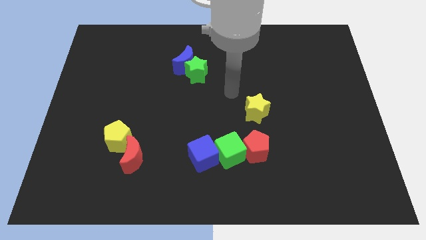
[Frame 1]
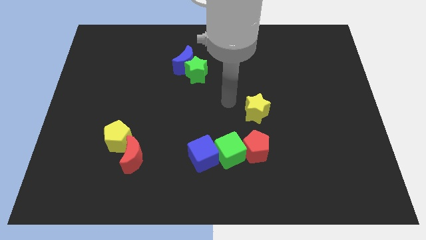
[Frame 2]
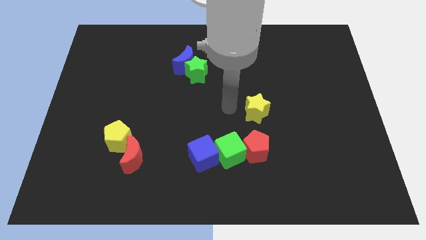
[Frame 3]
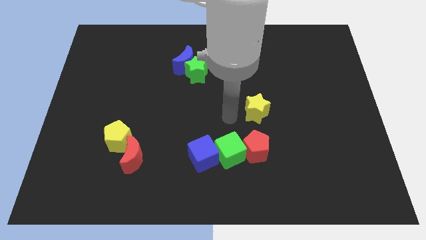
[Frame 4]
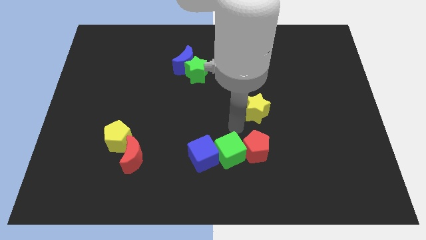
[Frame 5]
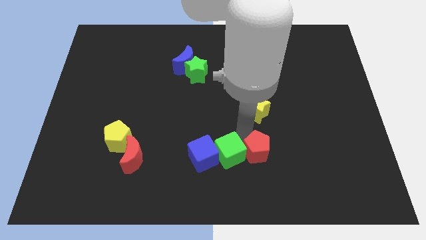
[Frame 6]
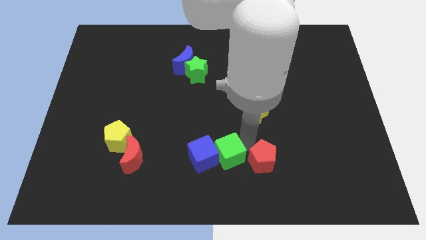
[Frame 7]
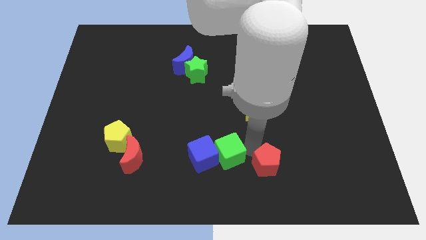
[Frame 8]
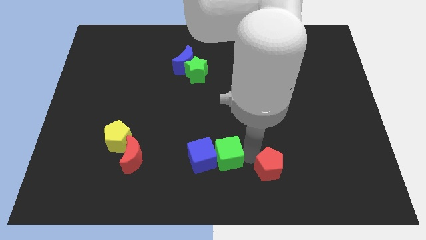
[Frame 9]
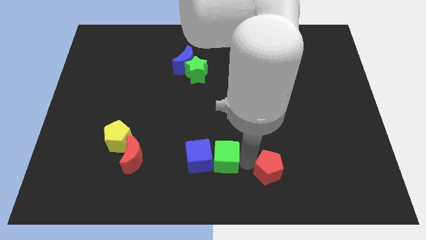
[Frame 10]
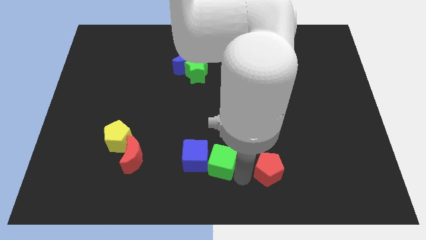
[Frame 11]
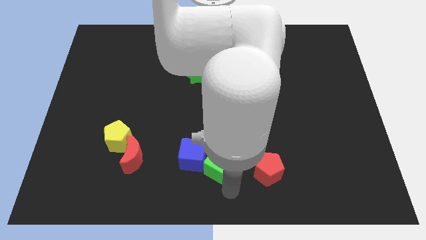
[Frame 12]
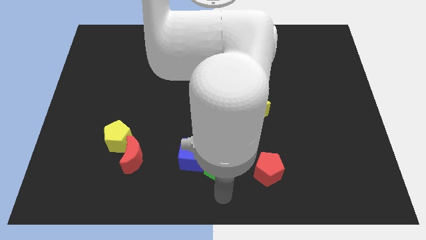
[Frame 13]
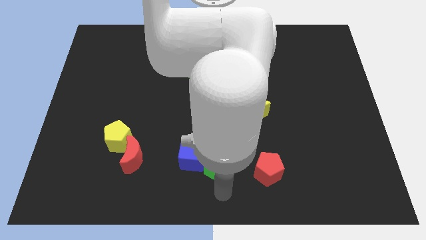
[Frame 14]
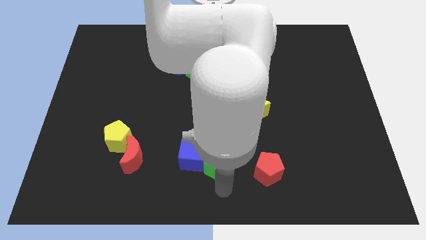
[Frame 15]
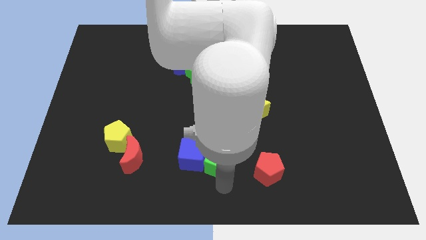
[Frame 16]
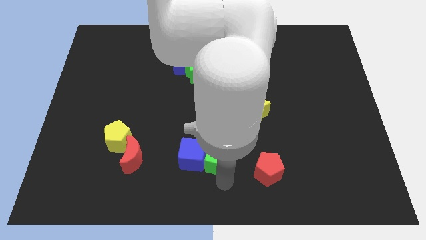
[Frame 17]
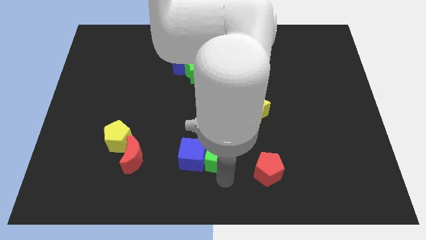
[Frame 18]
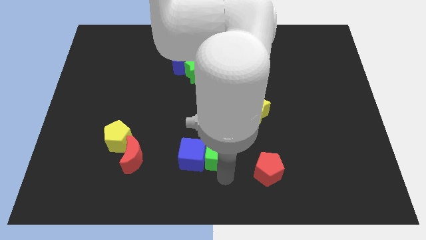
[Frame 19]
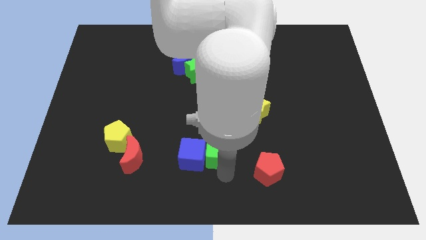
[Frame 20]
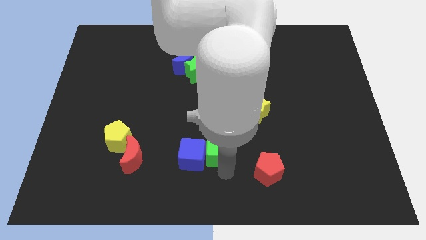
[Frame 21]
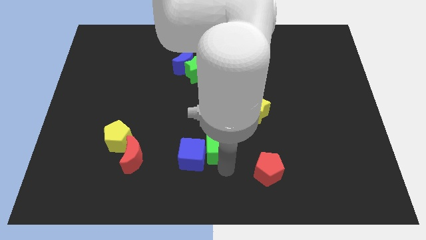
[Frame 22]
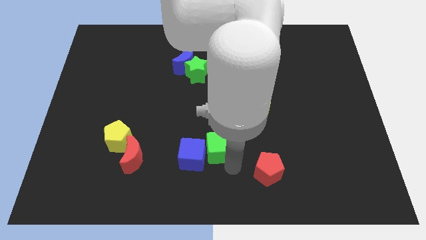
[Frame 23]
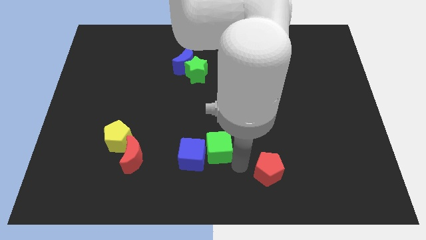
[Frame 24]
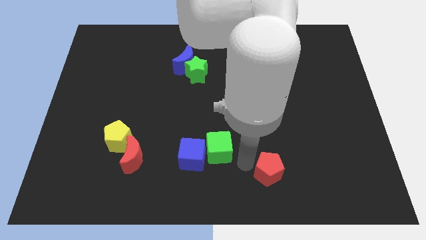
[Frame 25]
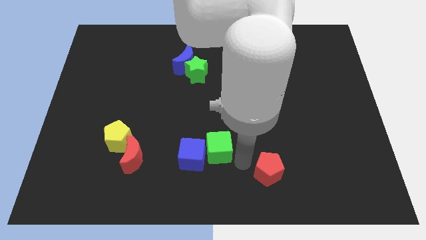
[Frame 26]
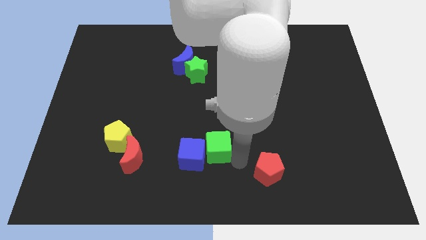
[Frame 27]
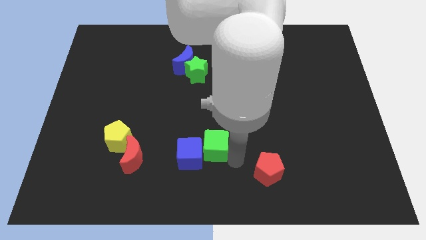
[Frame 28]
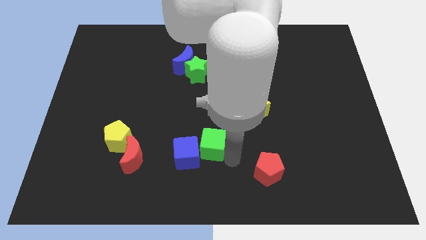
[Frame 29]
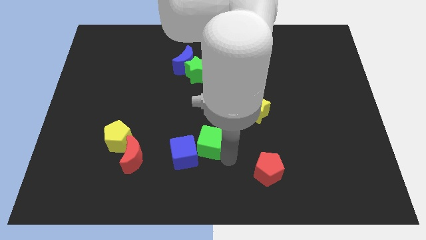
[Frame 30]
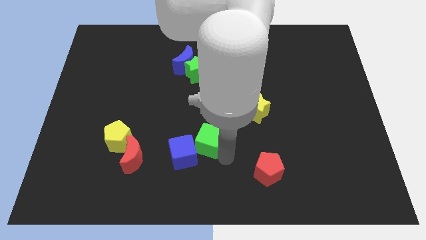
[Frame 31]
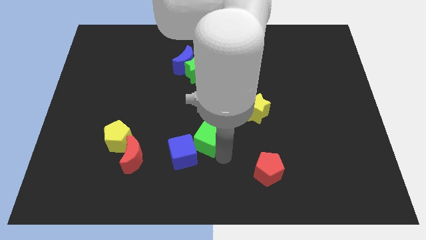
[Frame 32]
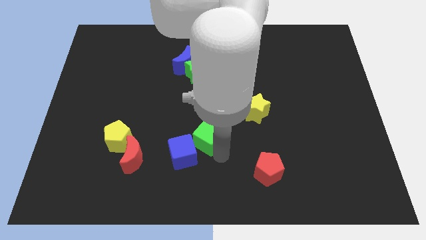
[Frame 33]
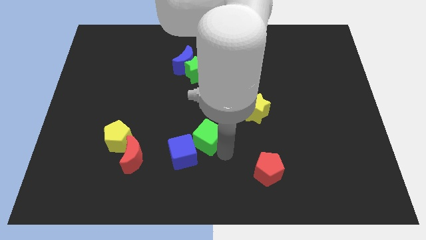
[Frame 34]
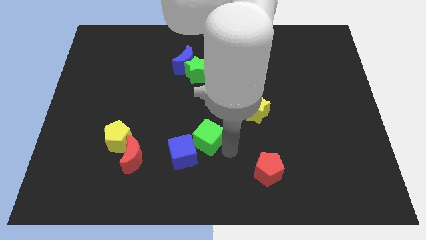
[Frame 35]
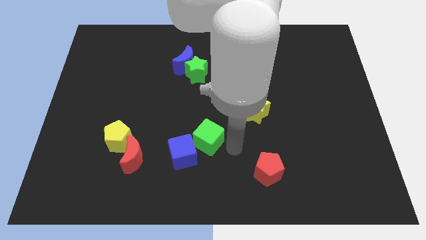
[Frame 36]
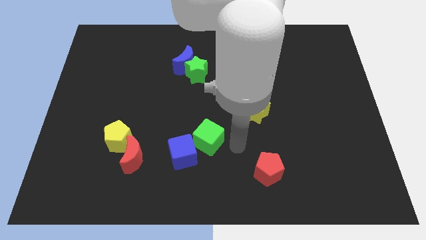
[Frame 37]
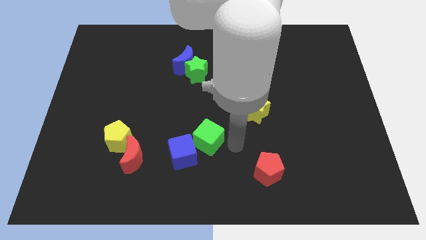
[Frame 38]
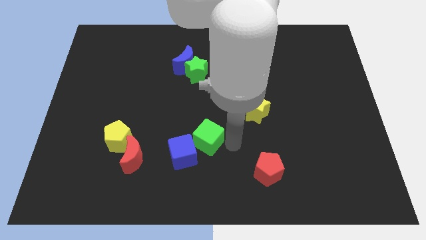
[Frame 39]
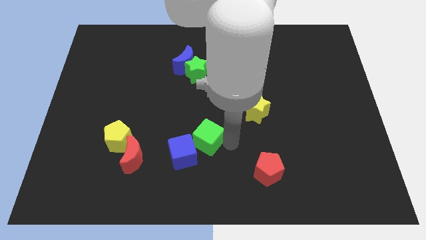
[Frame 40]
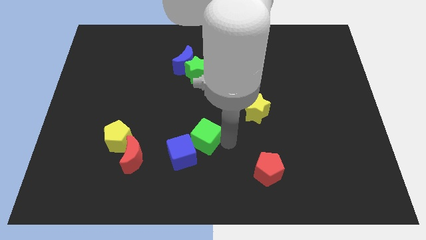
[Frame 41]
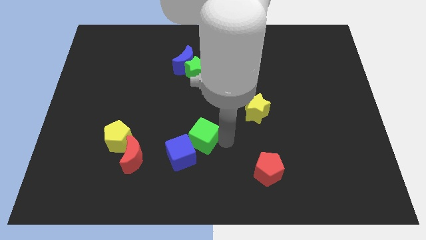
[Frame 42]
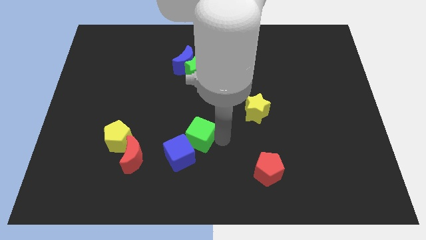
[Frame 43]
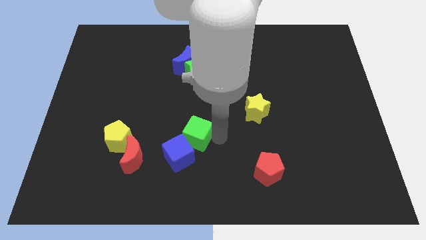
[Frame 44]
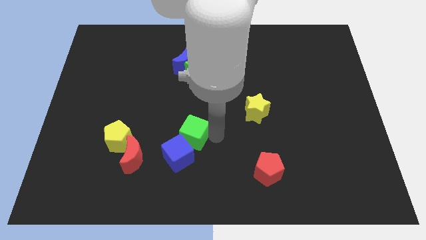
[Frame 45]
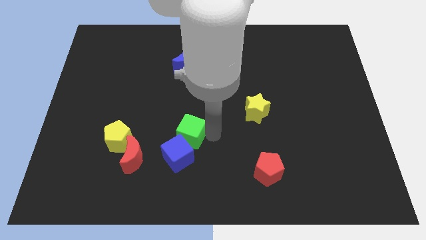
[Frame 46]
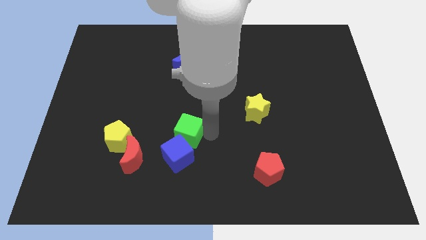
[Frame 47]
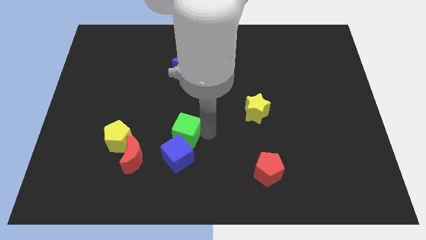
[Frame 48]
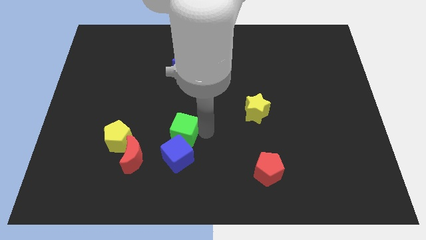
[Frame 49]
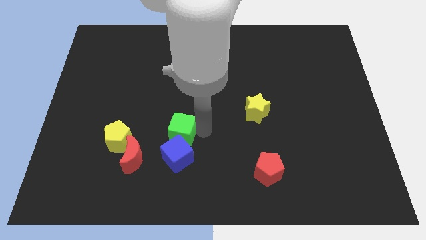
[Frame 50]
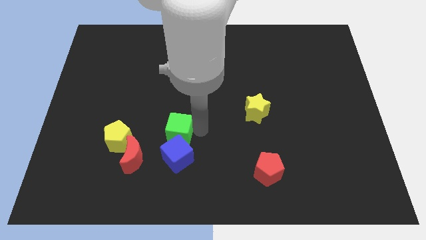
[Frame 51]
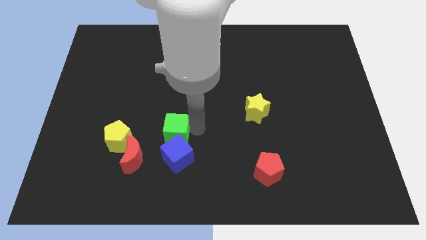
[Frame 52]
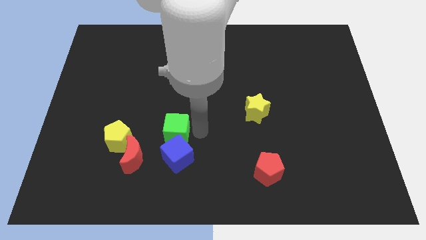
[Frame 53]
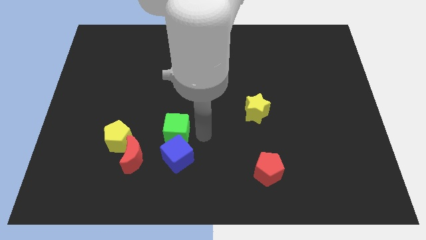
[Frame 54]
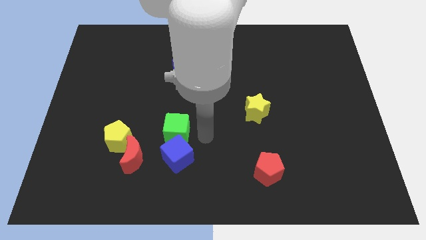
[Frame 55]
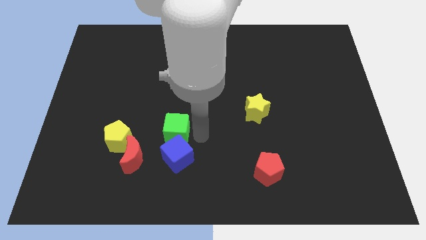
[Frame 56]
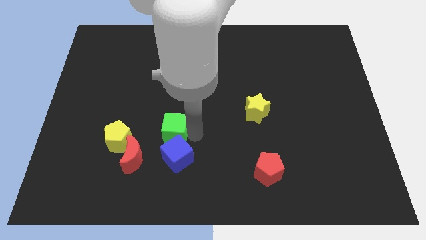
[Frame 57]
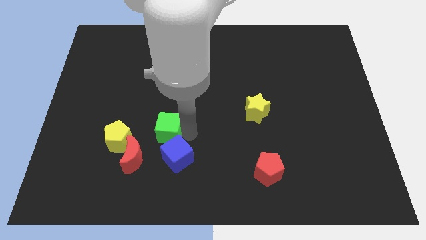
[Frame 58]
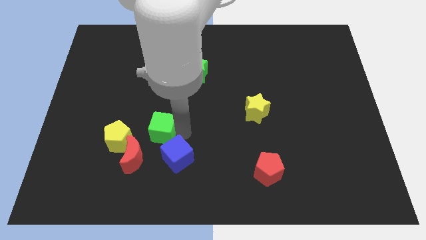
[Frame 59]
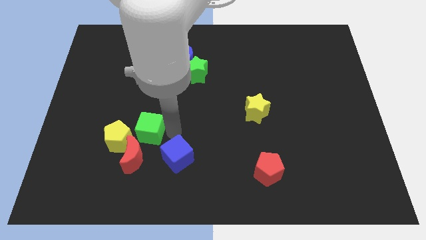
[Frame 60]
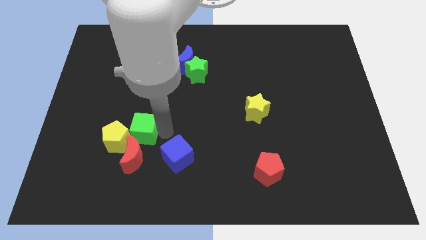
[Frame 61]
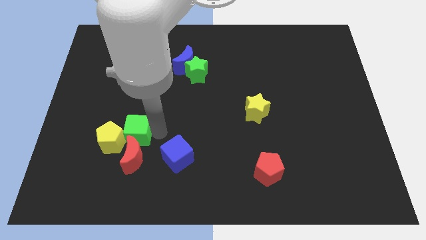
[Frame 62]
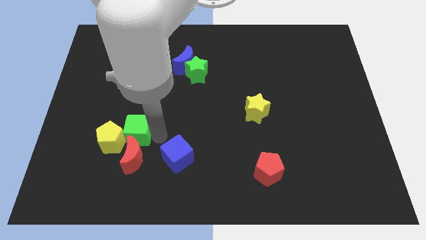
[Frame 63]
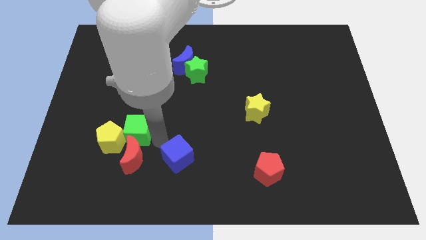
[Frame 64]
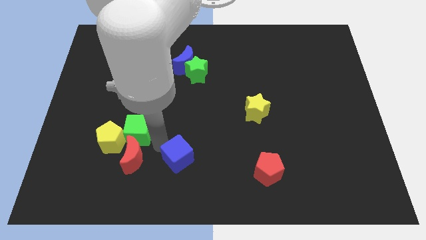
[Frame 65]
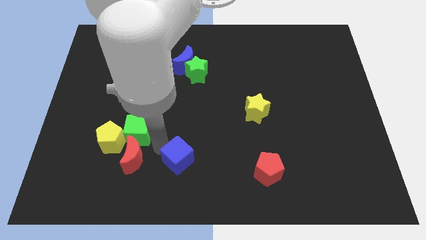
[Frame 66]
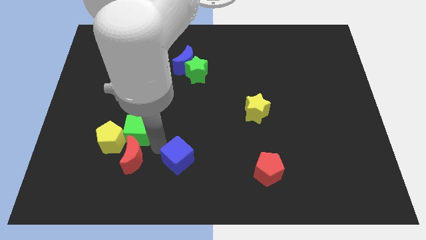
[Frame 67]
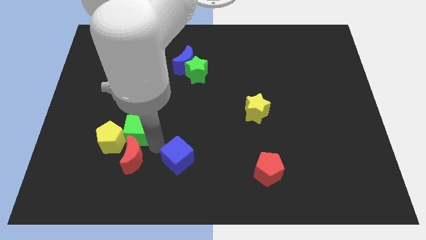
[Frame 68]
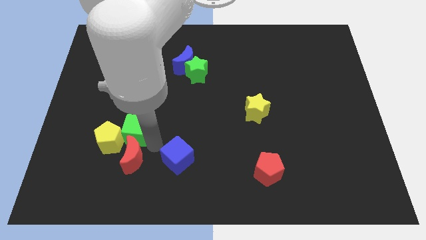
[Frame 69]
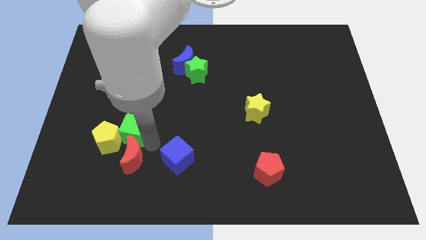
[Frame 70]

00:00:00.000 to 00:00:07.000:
slide the green cube to the left

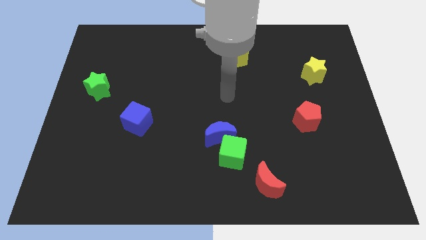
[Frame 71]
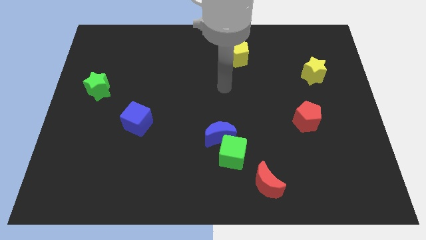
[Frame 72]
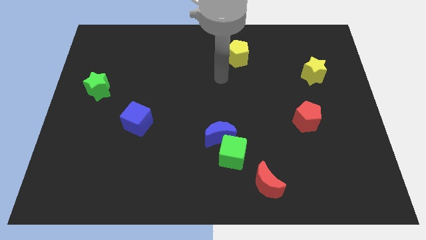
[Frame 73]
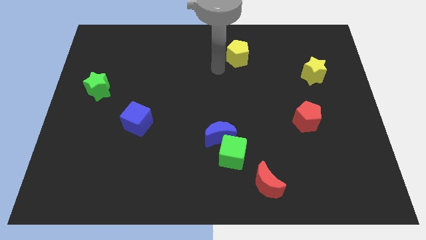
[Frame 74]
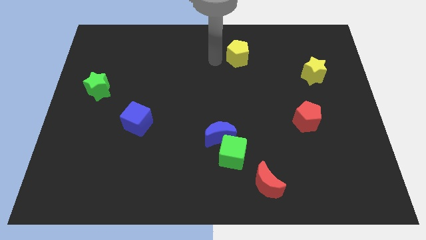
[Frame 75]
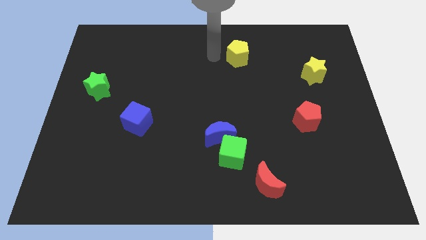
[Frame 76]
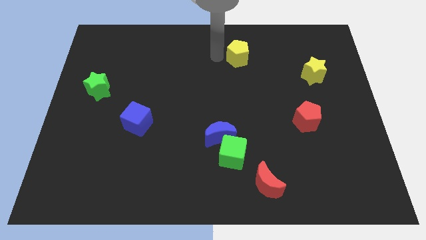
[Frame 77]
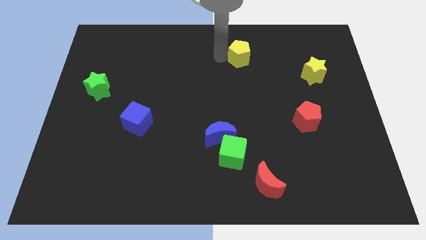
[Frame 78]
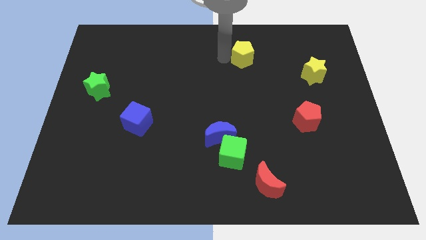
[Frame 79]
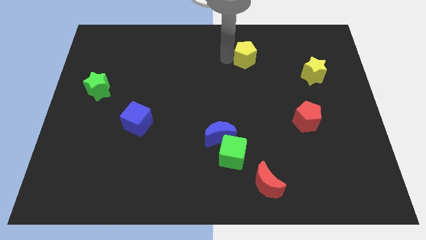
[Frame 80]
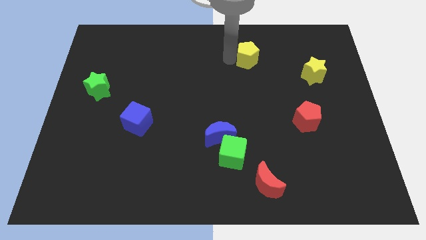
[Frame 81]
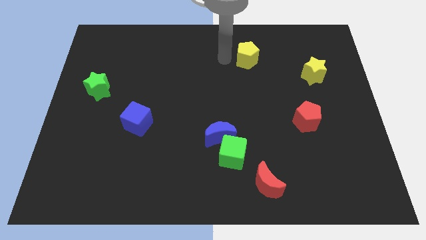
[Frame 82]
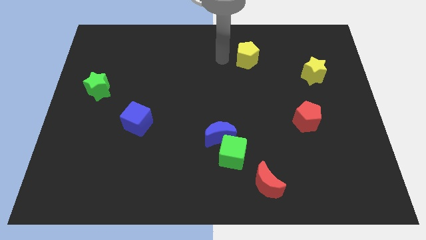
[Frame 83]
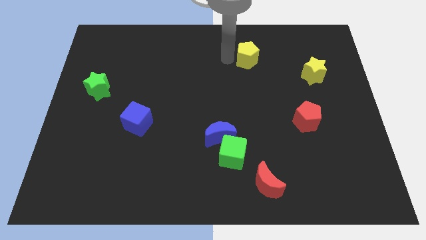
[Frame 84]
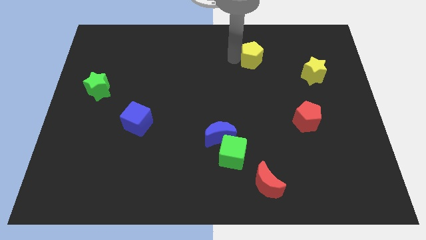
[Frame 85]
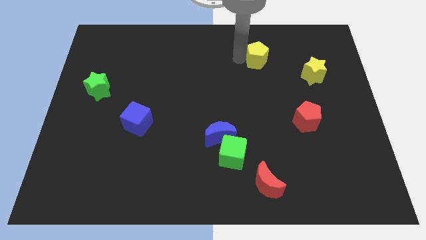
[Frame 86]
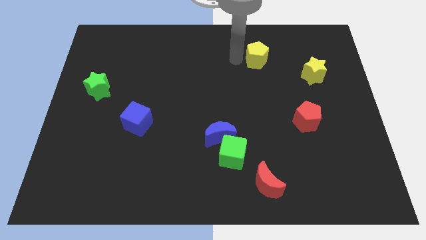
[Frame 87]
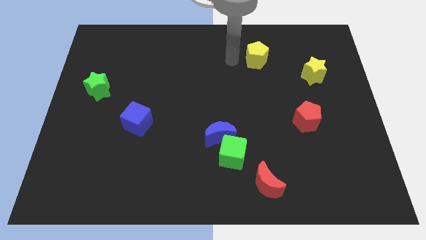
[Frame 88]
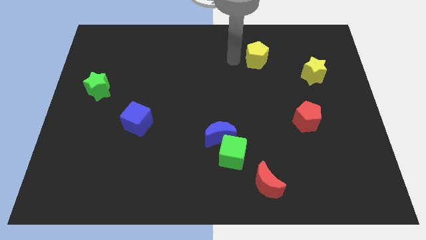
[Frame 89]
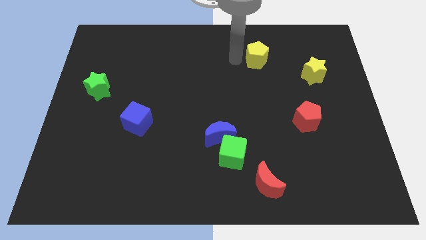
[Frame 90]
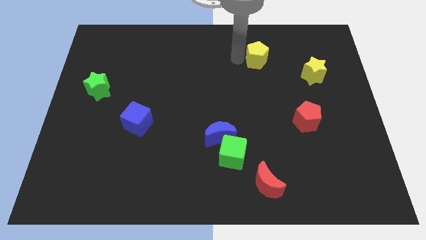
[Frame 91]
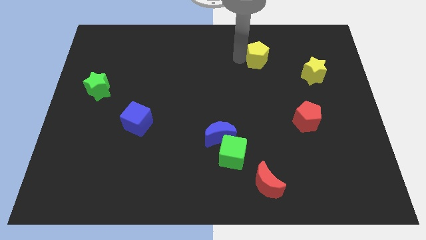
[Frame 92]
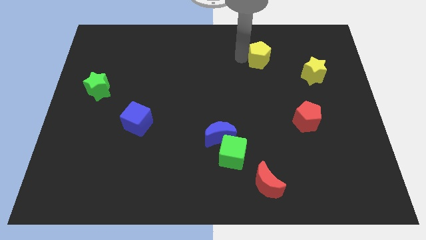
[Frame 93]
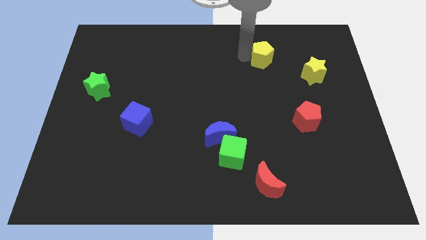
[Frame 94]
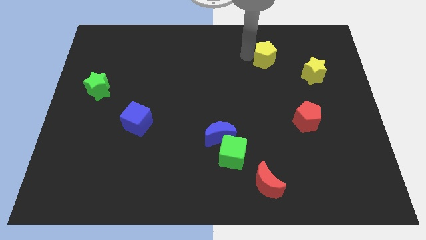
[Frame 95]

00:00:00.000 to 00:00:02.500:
slightly move the yellow pentagon right
